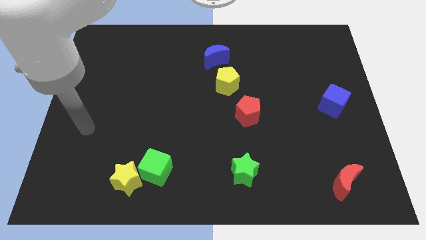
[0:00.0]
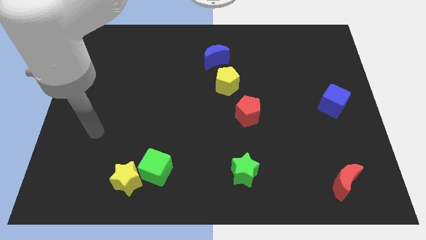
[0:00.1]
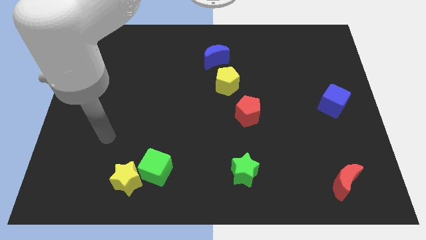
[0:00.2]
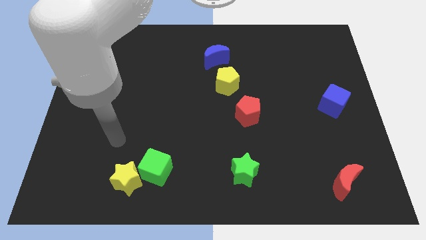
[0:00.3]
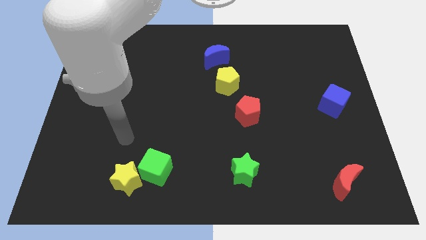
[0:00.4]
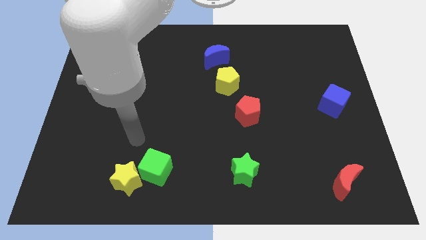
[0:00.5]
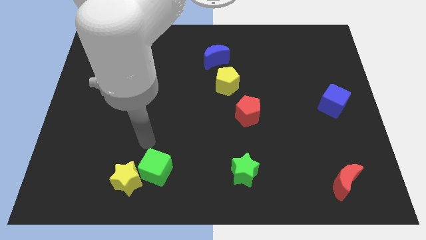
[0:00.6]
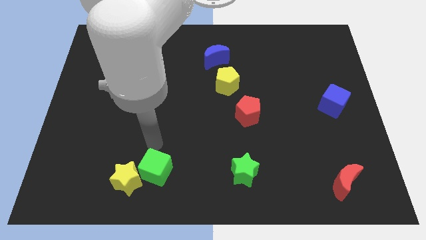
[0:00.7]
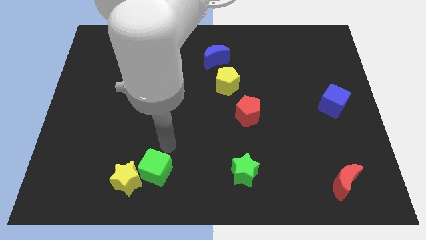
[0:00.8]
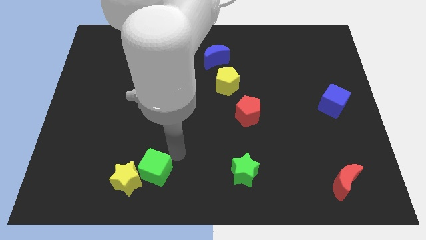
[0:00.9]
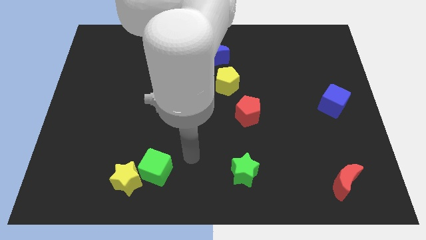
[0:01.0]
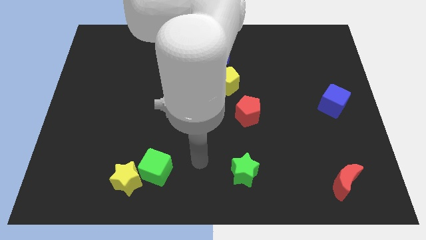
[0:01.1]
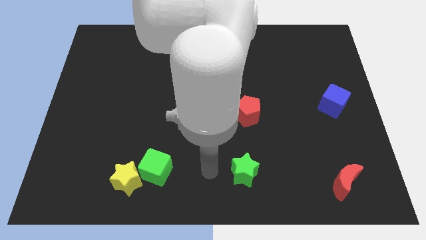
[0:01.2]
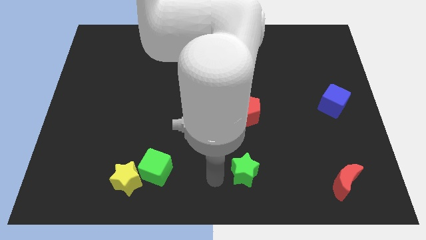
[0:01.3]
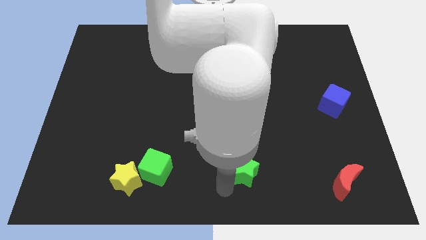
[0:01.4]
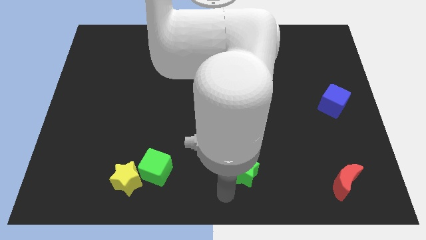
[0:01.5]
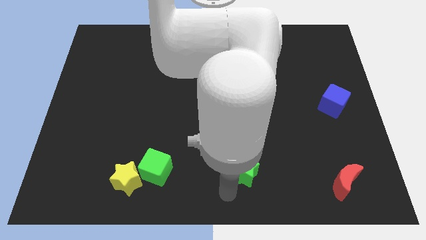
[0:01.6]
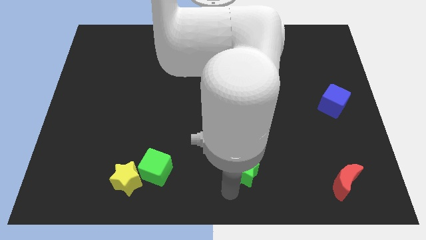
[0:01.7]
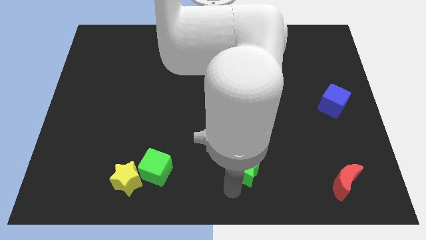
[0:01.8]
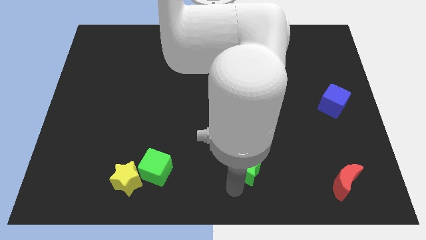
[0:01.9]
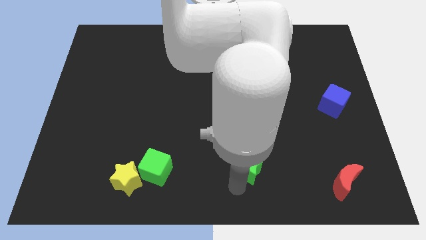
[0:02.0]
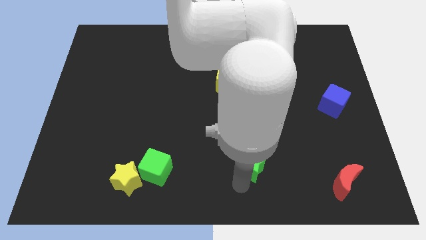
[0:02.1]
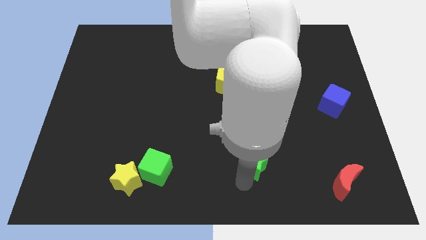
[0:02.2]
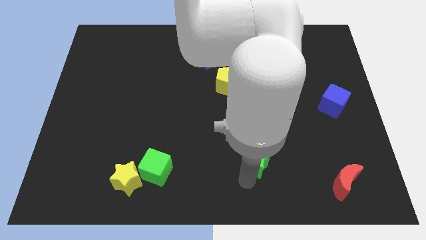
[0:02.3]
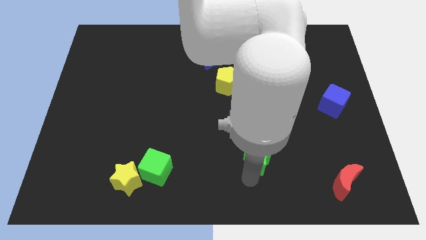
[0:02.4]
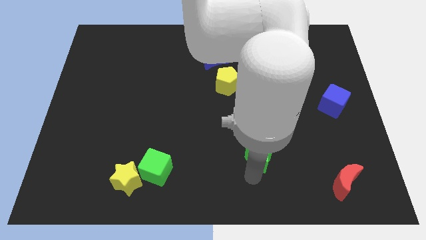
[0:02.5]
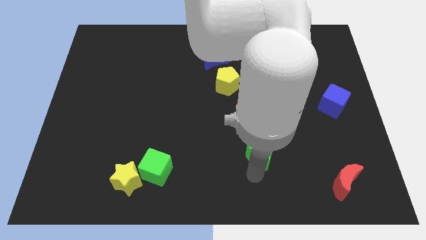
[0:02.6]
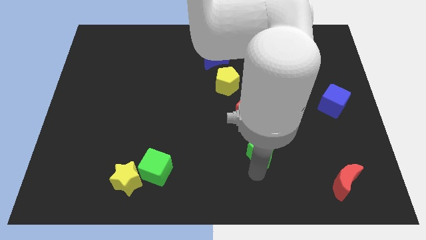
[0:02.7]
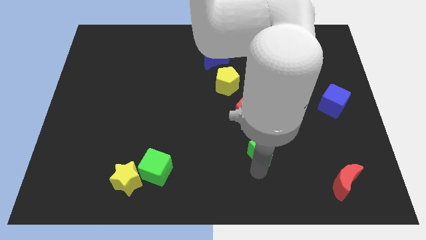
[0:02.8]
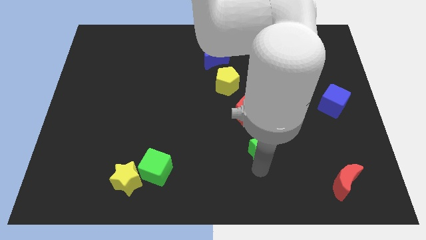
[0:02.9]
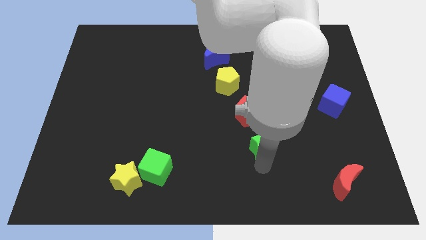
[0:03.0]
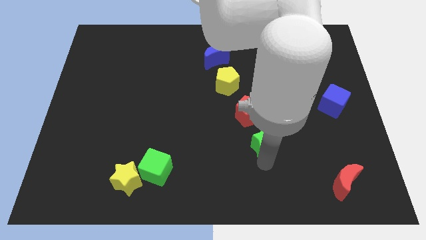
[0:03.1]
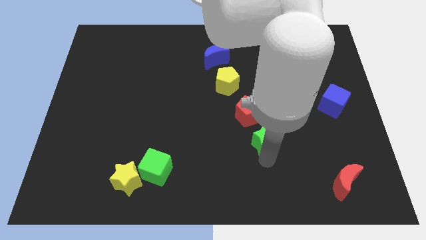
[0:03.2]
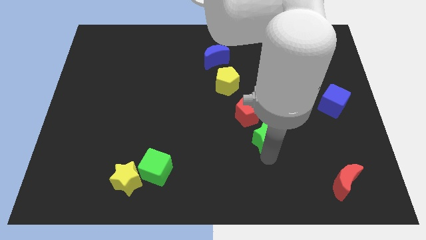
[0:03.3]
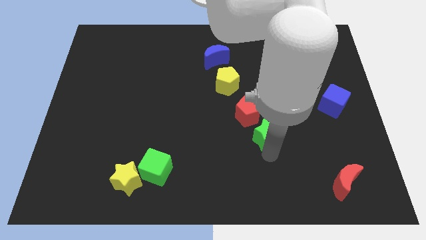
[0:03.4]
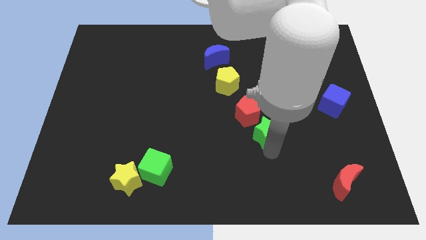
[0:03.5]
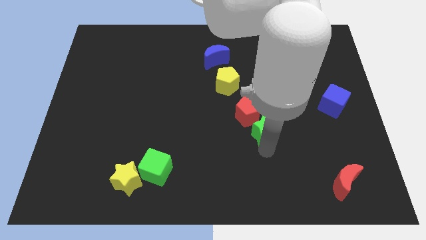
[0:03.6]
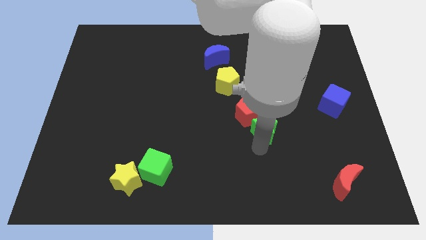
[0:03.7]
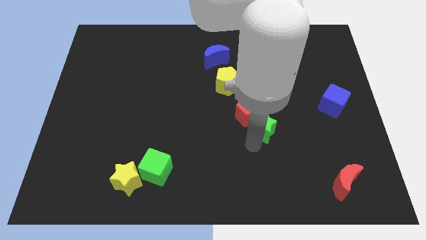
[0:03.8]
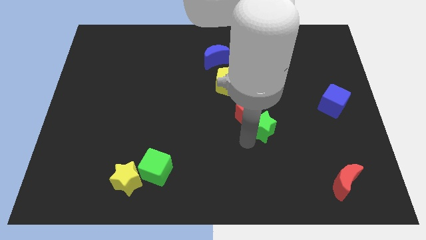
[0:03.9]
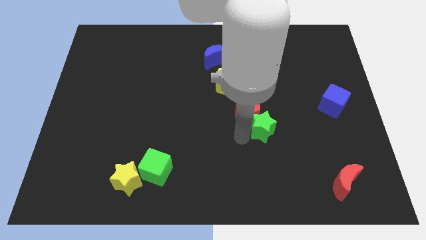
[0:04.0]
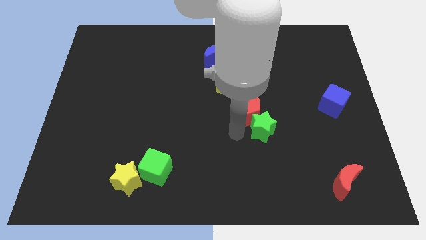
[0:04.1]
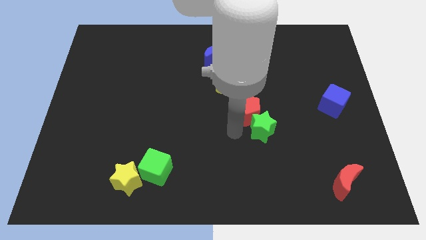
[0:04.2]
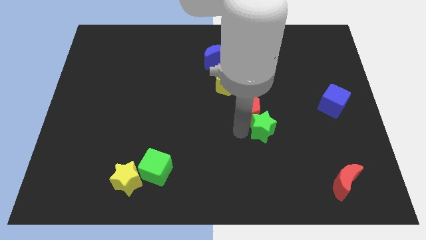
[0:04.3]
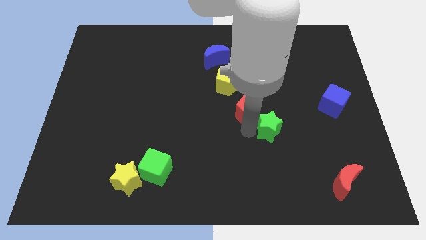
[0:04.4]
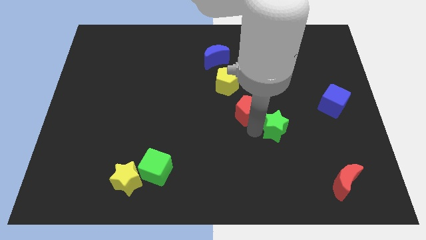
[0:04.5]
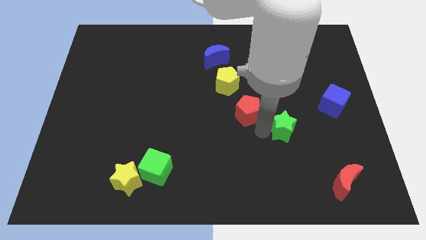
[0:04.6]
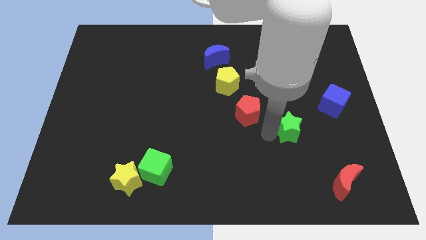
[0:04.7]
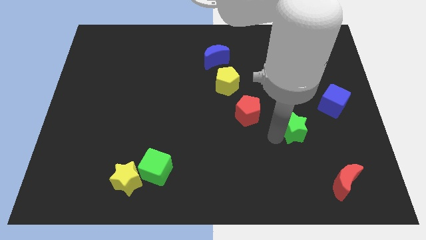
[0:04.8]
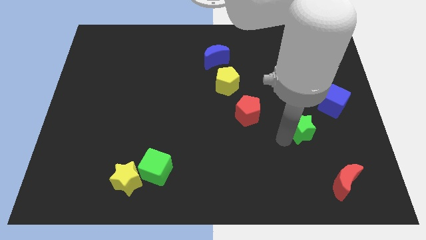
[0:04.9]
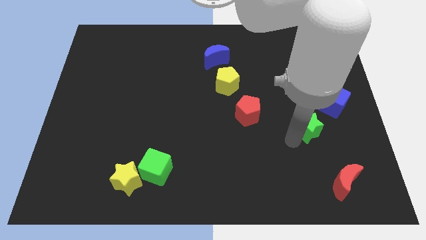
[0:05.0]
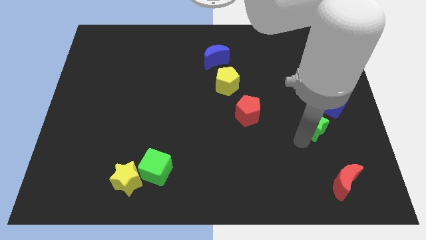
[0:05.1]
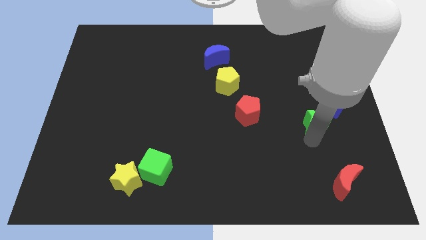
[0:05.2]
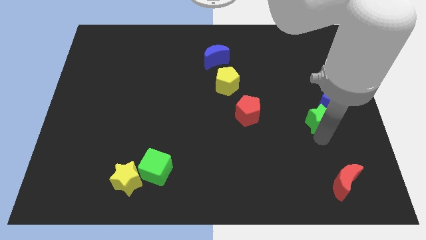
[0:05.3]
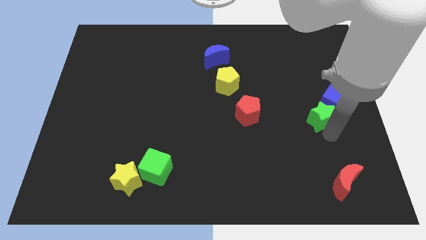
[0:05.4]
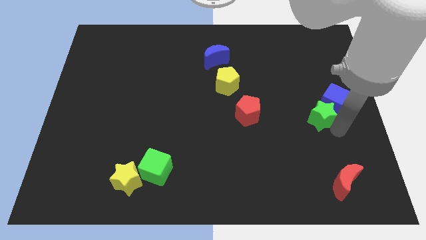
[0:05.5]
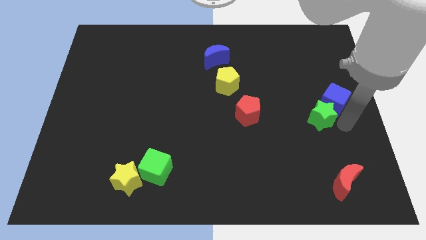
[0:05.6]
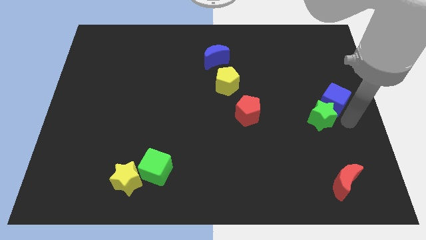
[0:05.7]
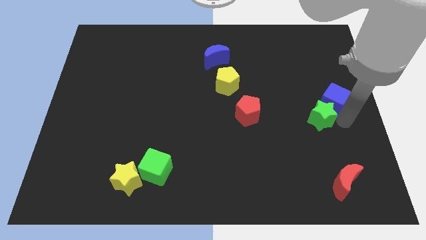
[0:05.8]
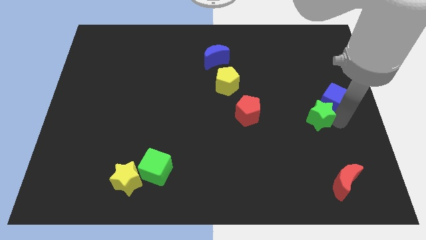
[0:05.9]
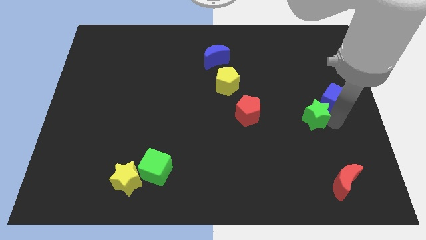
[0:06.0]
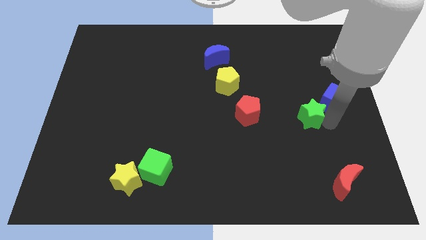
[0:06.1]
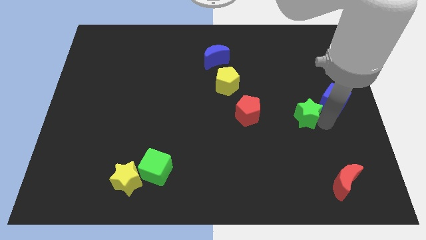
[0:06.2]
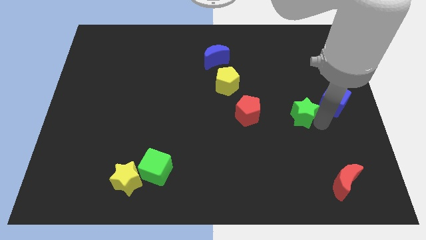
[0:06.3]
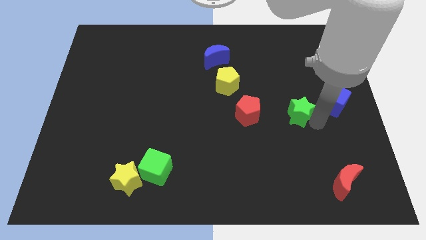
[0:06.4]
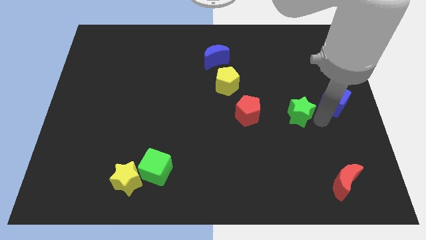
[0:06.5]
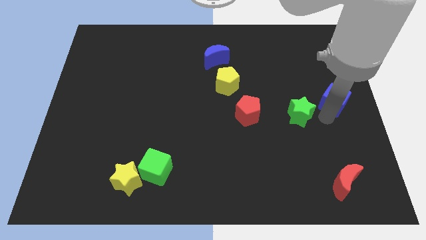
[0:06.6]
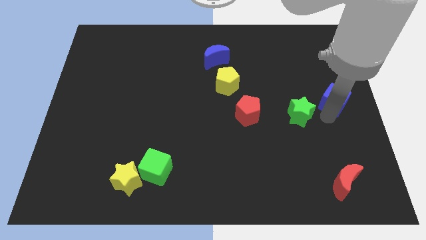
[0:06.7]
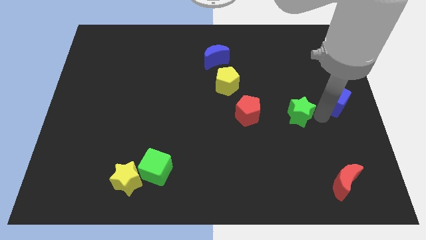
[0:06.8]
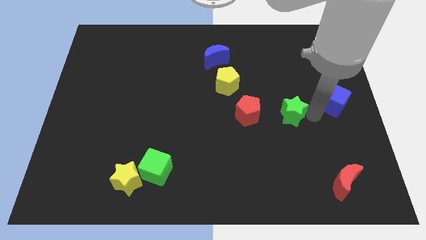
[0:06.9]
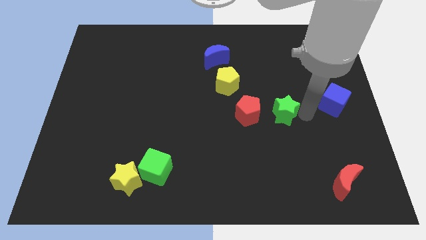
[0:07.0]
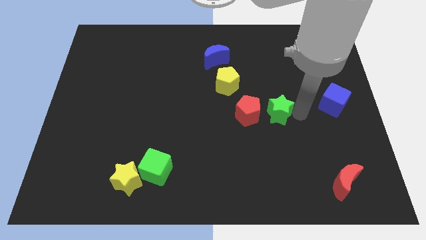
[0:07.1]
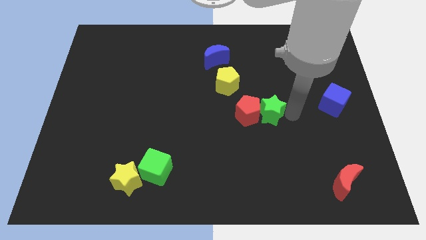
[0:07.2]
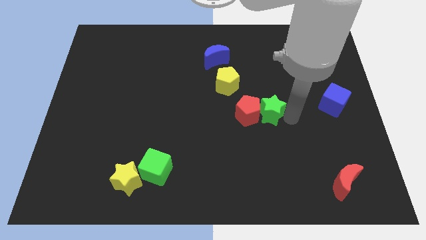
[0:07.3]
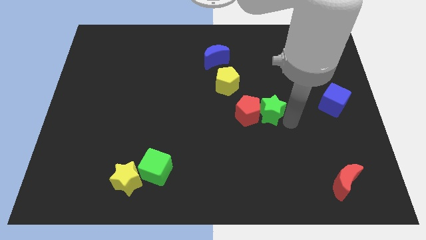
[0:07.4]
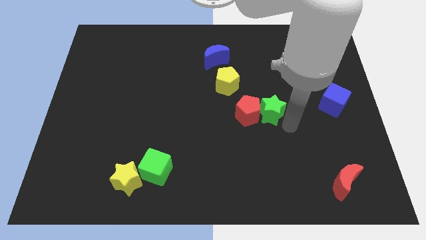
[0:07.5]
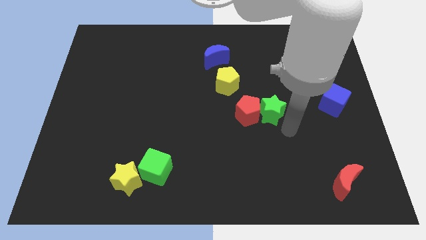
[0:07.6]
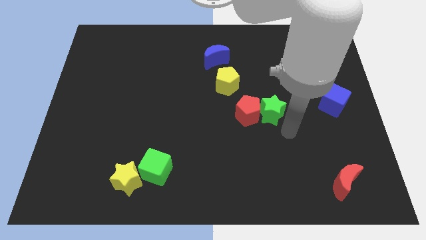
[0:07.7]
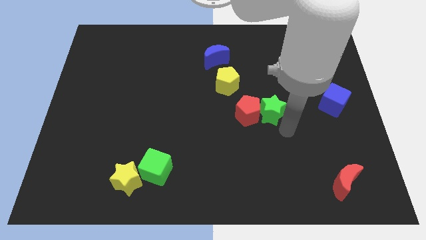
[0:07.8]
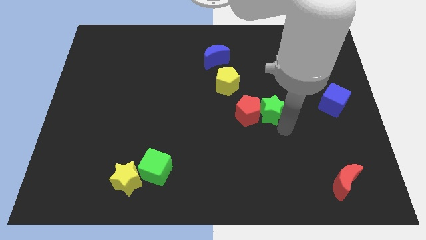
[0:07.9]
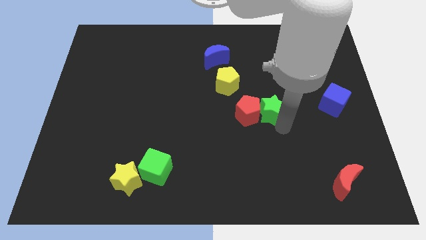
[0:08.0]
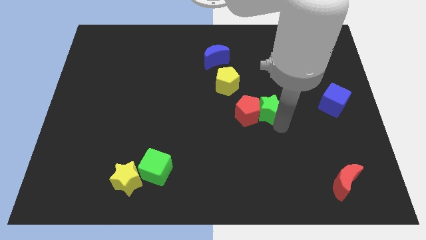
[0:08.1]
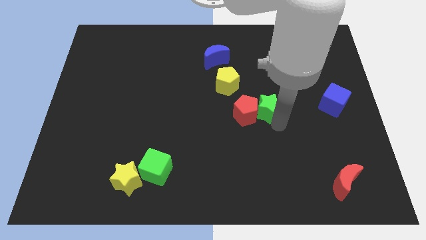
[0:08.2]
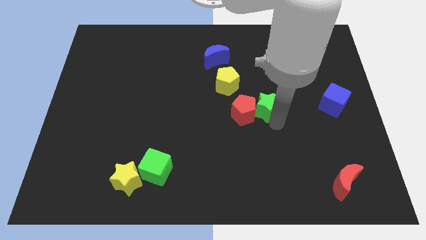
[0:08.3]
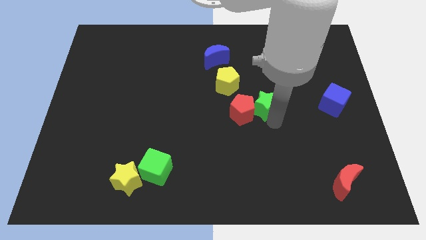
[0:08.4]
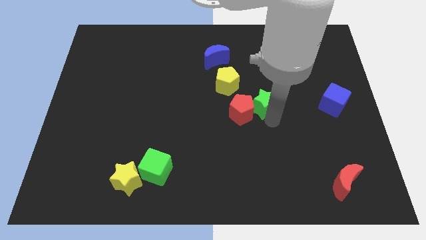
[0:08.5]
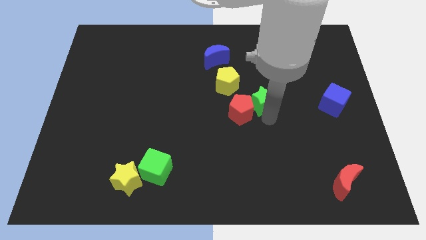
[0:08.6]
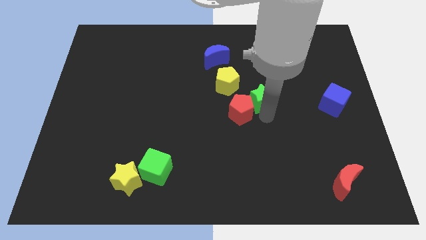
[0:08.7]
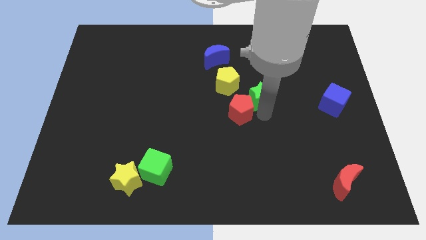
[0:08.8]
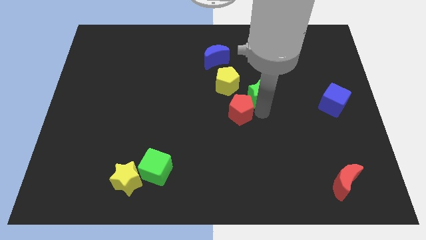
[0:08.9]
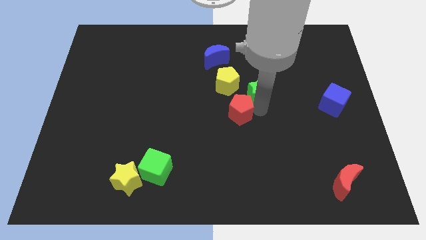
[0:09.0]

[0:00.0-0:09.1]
move the green star upwards
